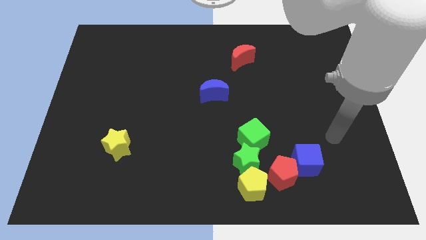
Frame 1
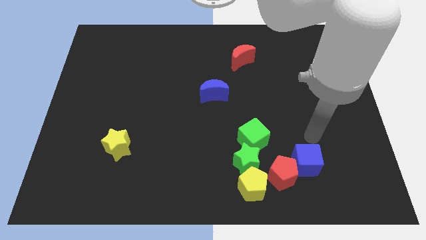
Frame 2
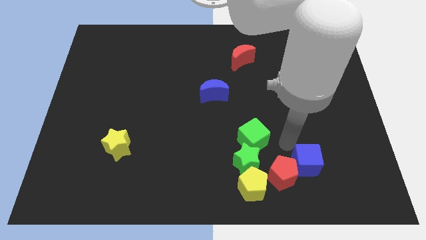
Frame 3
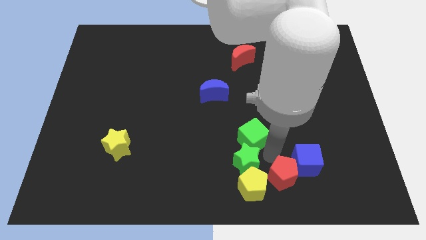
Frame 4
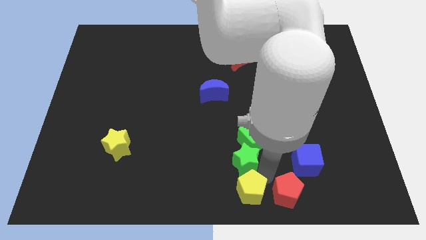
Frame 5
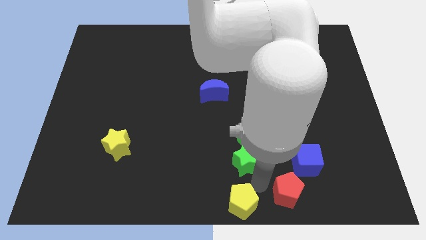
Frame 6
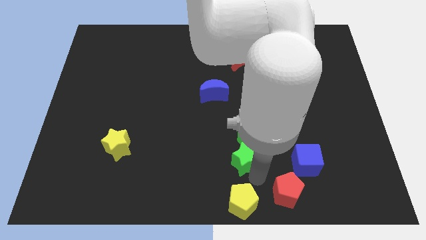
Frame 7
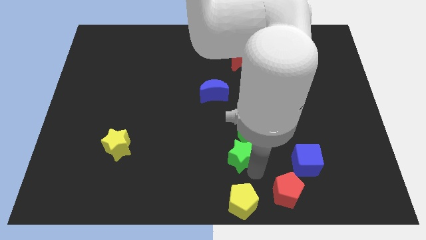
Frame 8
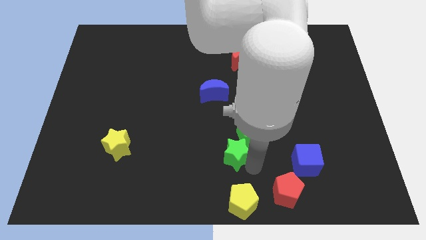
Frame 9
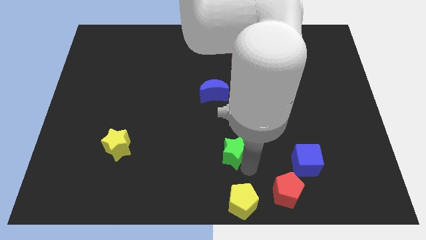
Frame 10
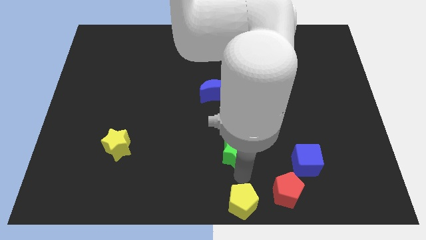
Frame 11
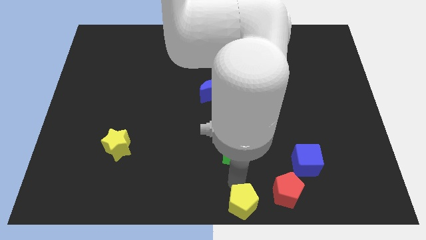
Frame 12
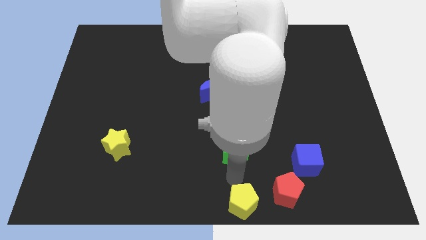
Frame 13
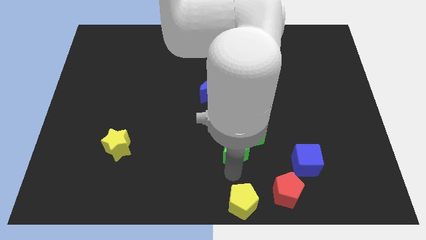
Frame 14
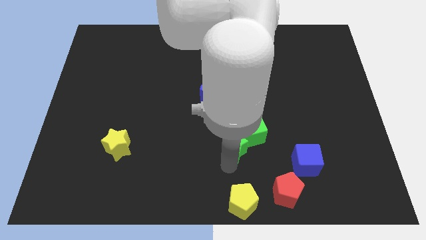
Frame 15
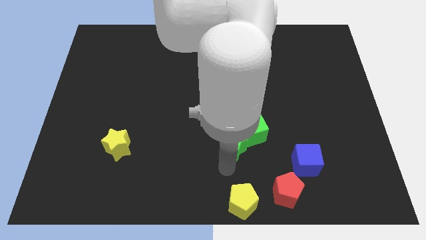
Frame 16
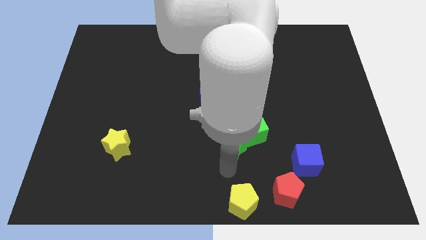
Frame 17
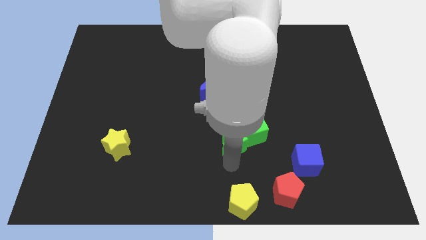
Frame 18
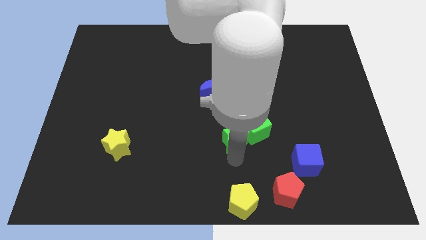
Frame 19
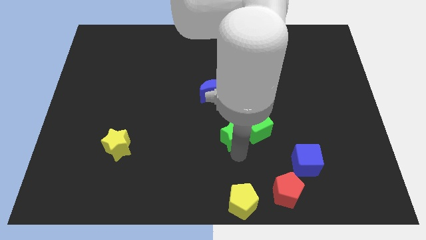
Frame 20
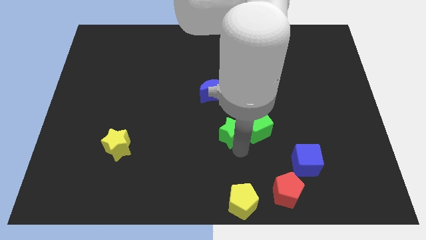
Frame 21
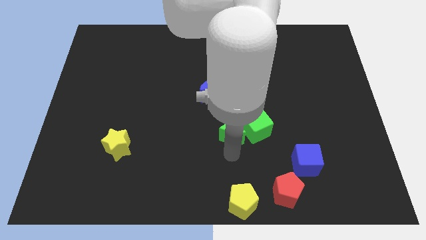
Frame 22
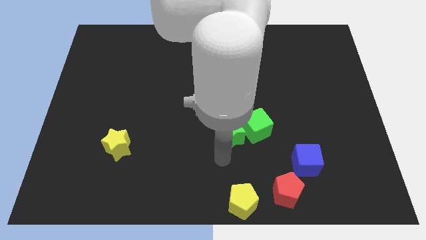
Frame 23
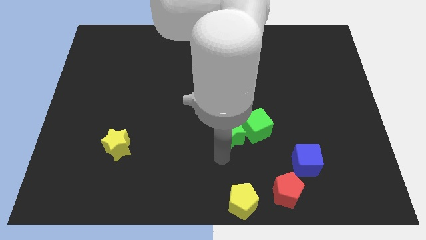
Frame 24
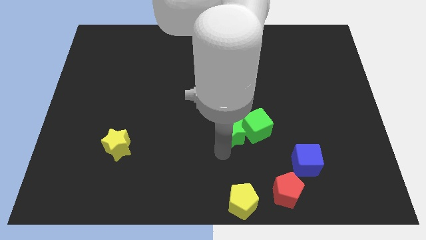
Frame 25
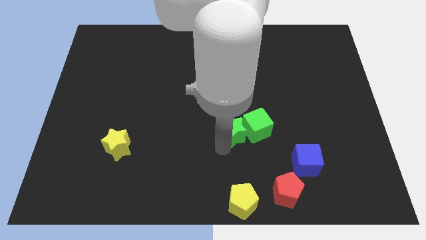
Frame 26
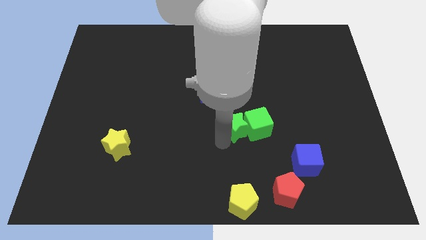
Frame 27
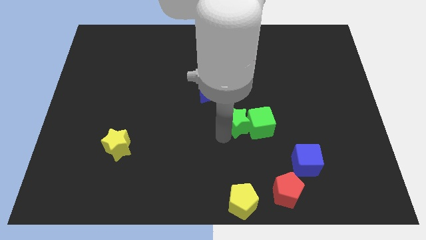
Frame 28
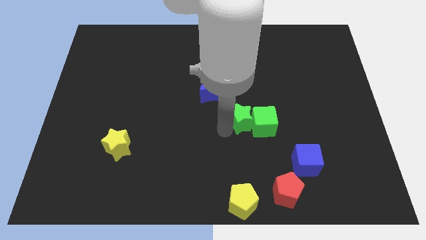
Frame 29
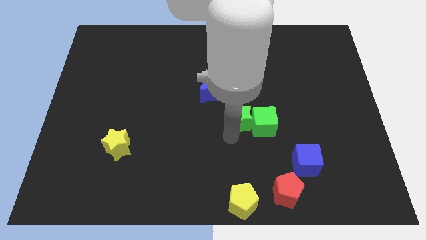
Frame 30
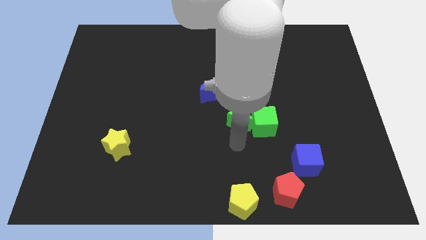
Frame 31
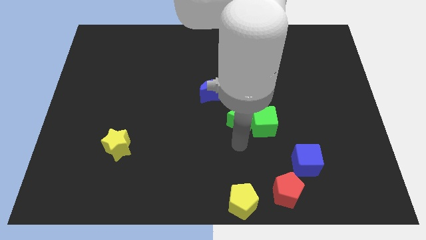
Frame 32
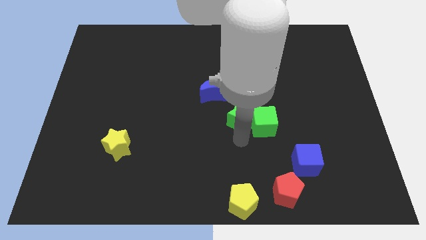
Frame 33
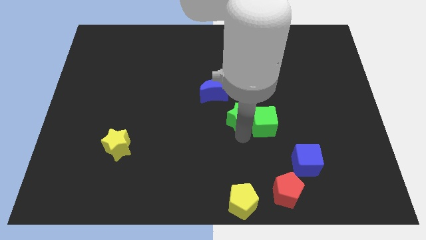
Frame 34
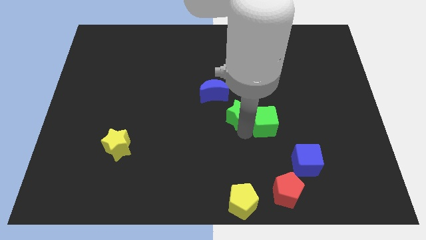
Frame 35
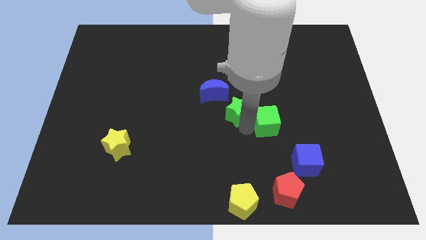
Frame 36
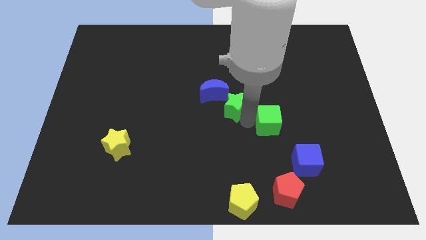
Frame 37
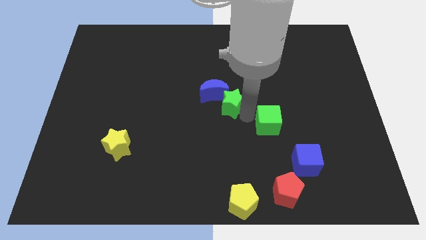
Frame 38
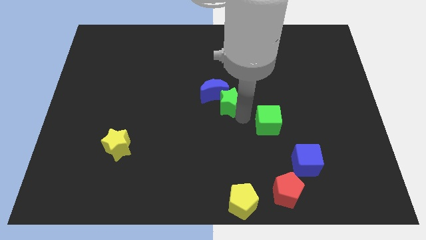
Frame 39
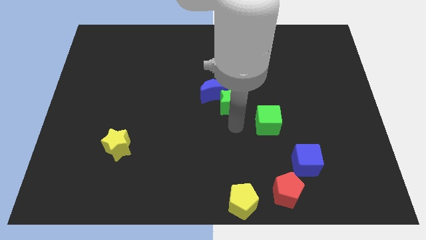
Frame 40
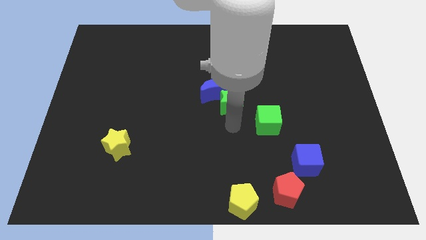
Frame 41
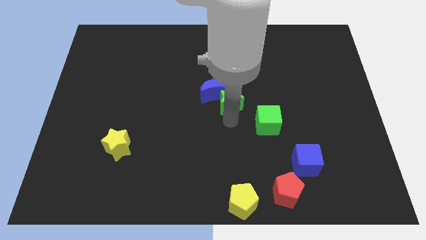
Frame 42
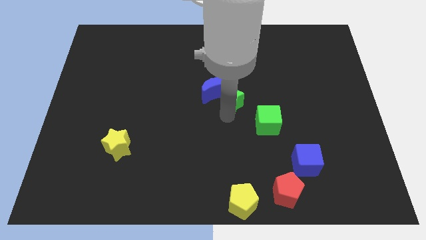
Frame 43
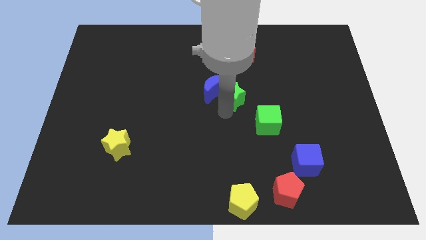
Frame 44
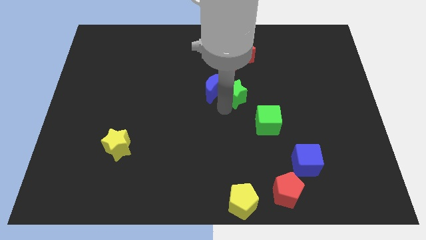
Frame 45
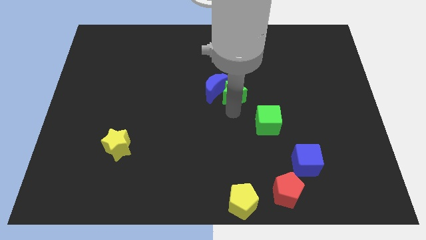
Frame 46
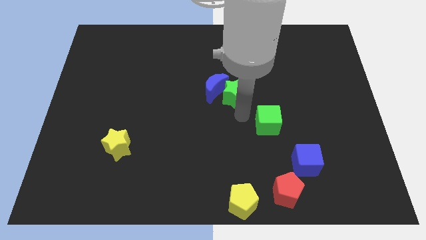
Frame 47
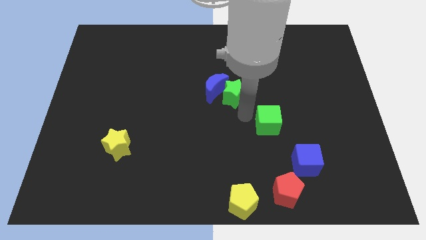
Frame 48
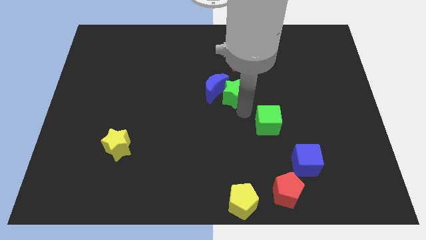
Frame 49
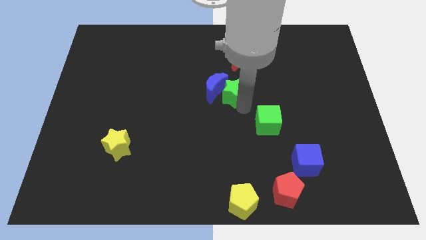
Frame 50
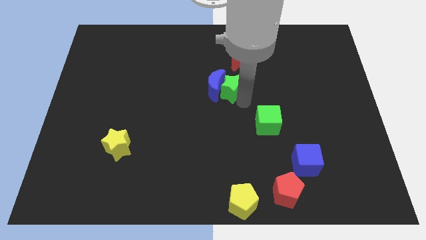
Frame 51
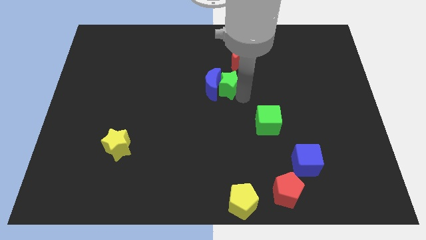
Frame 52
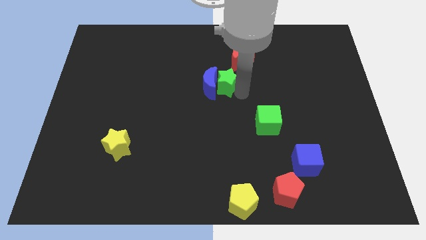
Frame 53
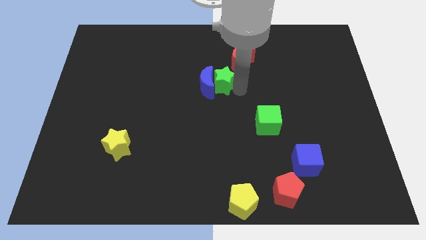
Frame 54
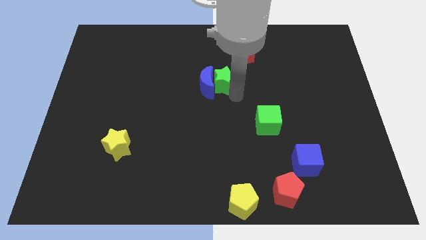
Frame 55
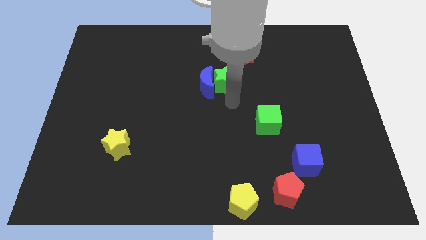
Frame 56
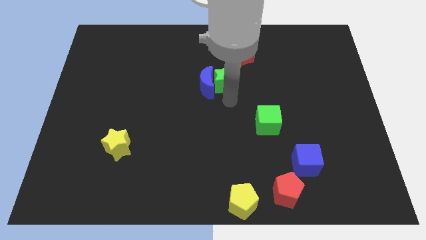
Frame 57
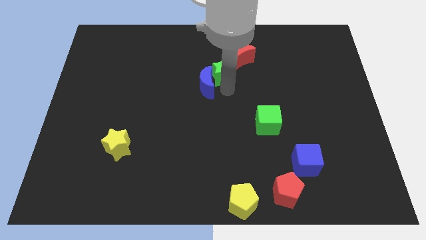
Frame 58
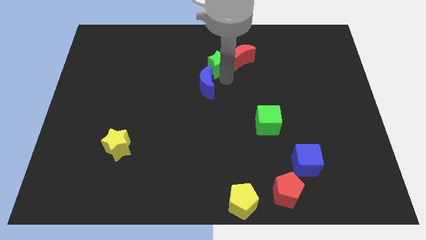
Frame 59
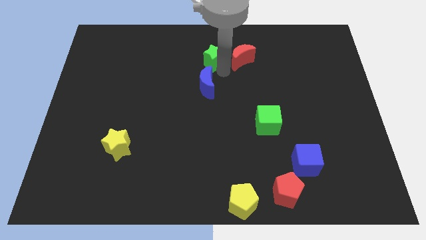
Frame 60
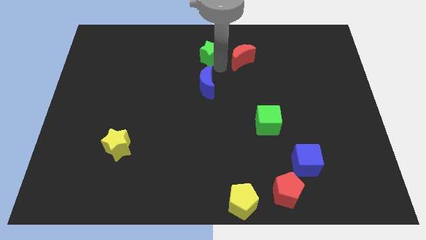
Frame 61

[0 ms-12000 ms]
move the green star to the towards your base

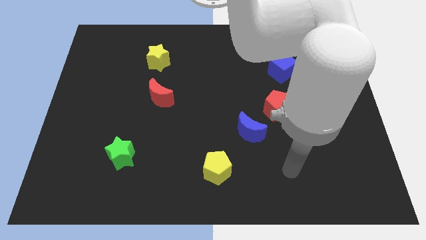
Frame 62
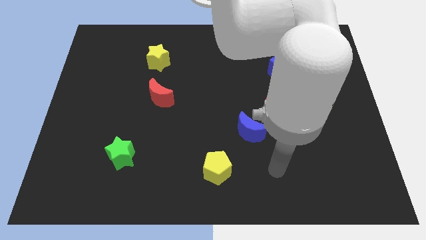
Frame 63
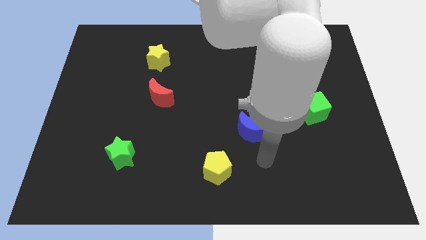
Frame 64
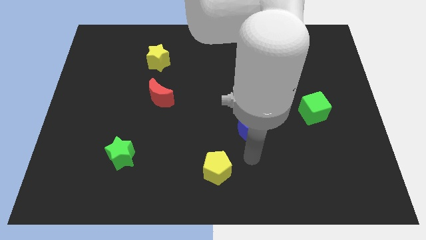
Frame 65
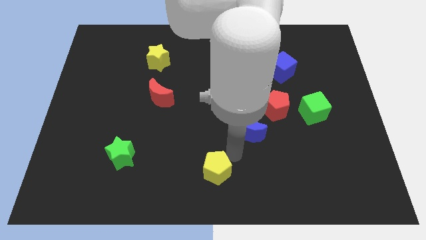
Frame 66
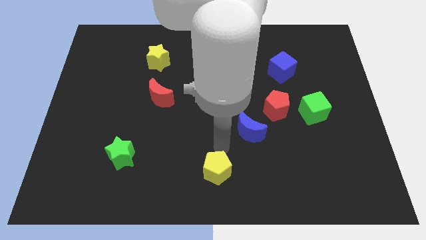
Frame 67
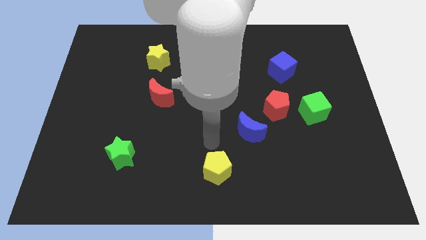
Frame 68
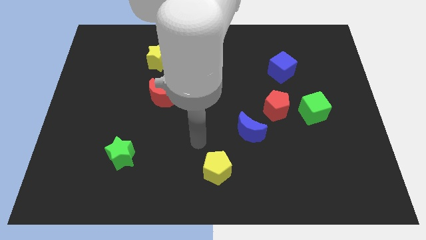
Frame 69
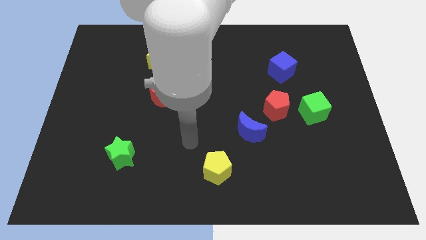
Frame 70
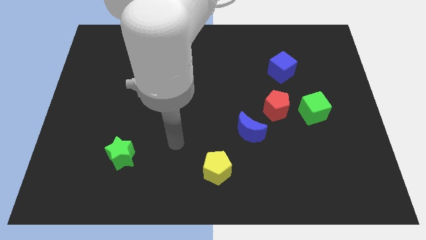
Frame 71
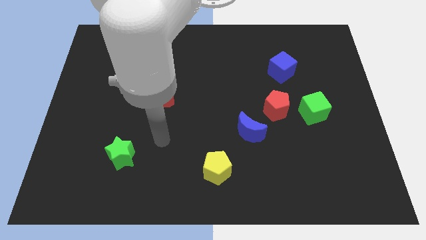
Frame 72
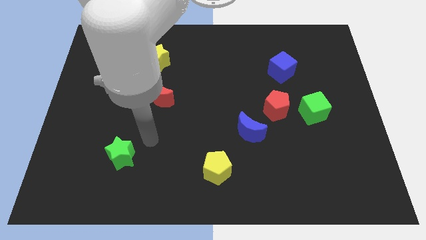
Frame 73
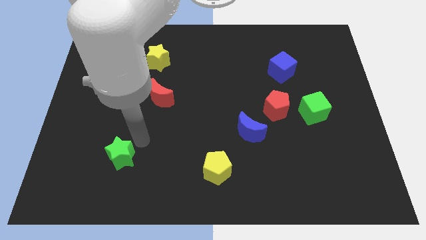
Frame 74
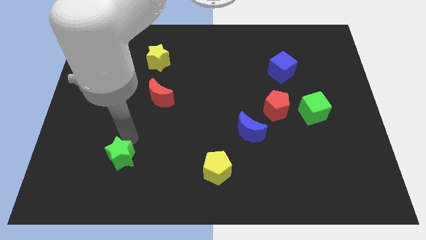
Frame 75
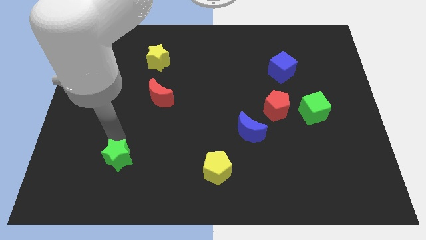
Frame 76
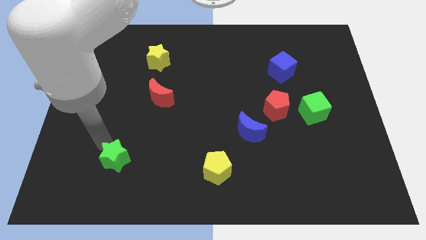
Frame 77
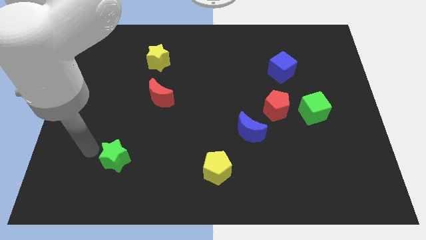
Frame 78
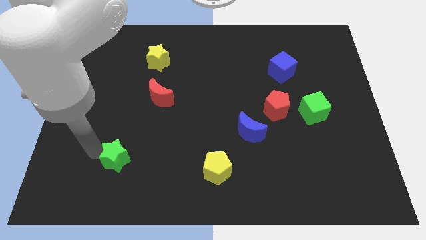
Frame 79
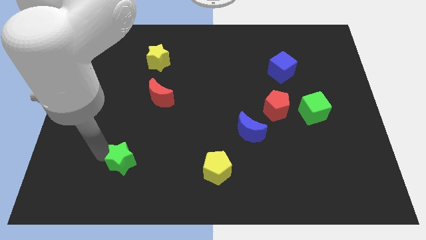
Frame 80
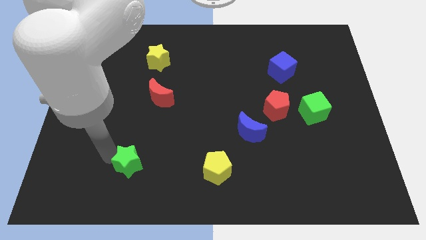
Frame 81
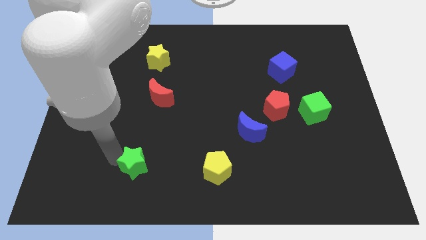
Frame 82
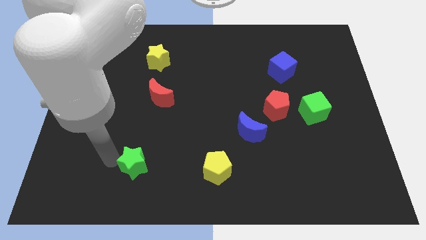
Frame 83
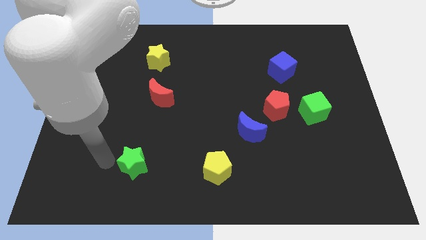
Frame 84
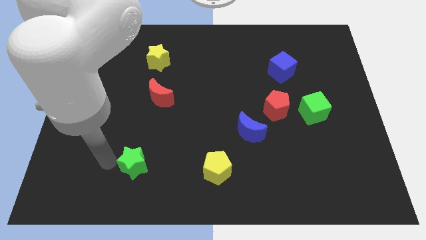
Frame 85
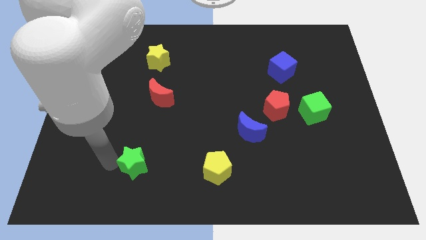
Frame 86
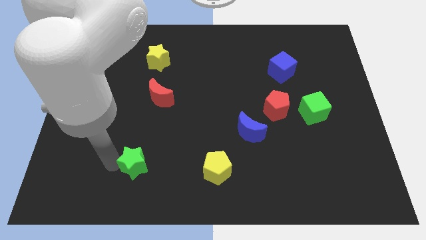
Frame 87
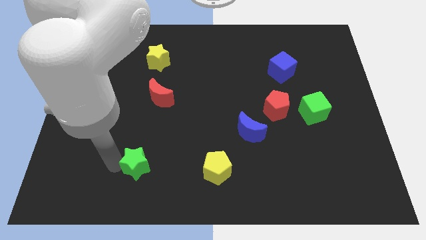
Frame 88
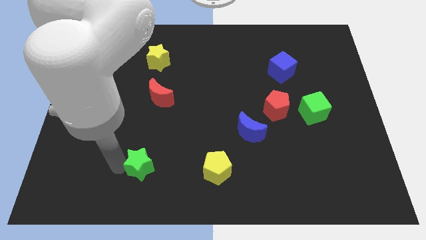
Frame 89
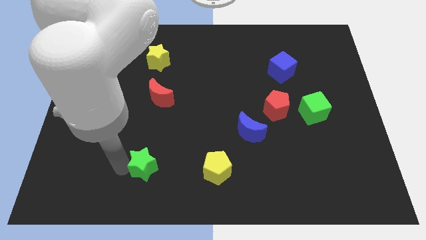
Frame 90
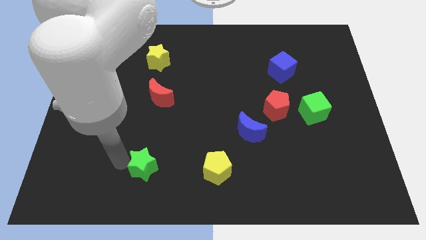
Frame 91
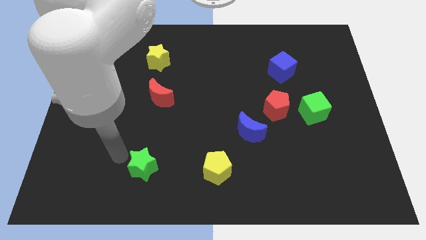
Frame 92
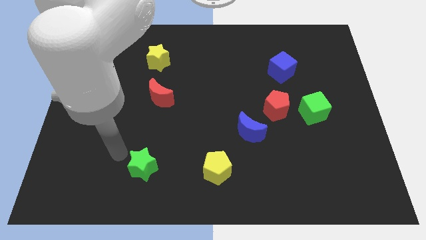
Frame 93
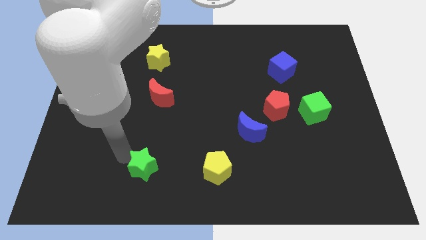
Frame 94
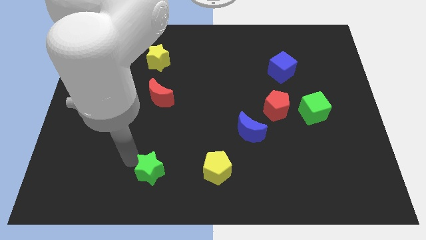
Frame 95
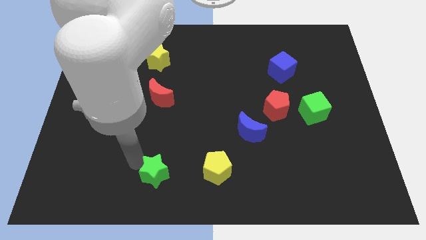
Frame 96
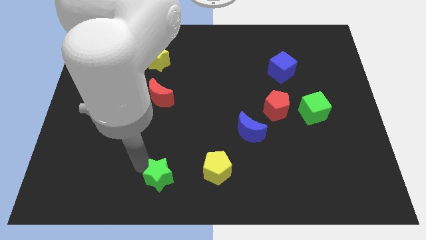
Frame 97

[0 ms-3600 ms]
push the green star to the bottom
